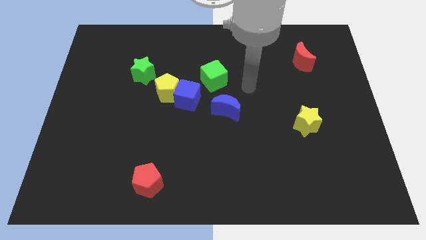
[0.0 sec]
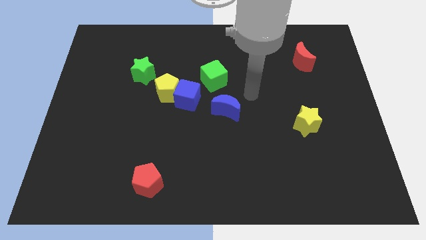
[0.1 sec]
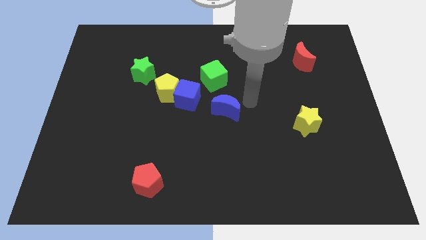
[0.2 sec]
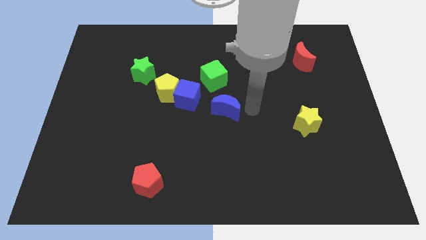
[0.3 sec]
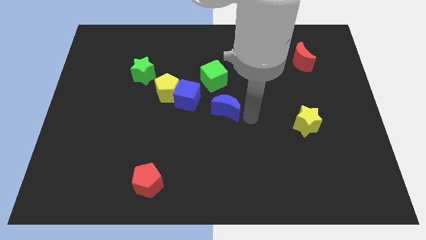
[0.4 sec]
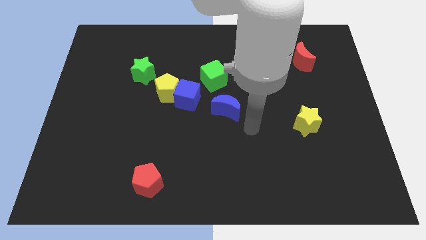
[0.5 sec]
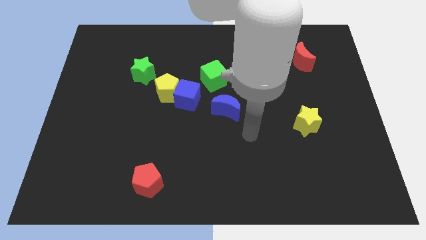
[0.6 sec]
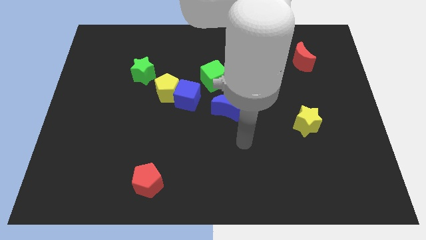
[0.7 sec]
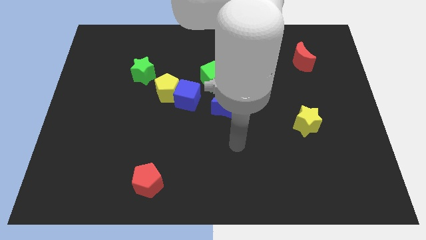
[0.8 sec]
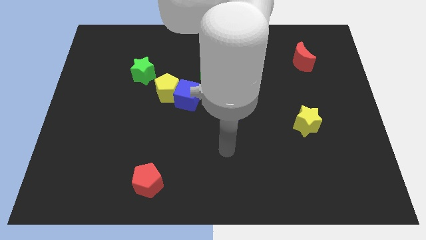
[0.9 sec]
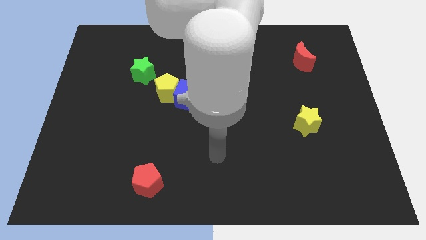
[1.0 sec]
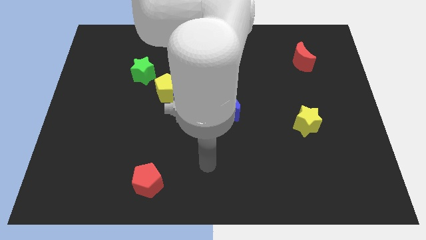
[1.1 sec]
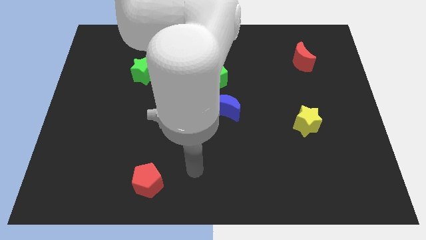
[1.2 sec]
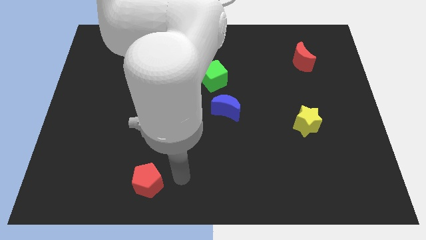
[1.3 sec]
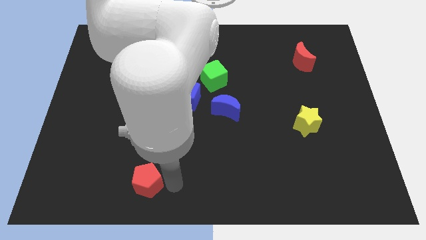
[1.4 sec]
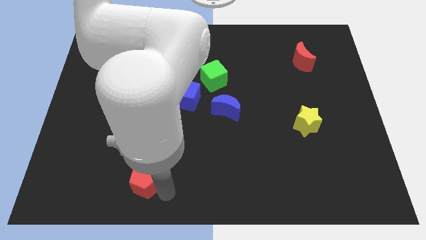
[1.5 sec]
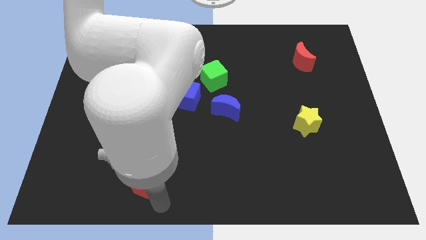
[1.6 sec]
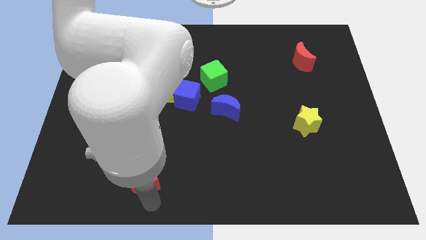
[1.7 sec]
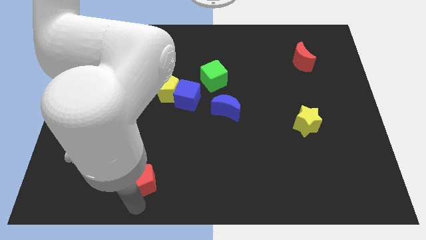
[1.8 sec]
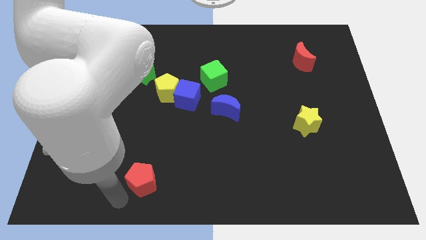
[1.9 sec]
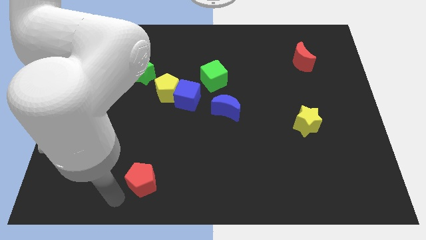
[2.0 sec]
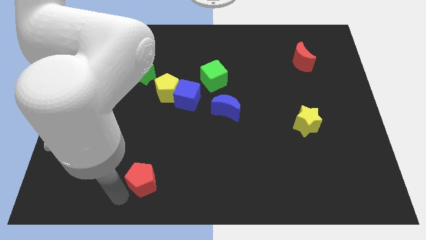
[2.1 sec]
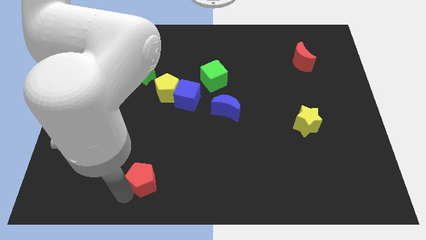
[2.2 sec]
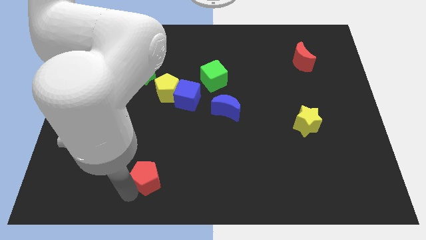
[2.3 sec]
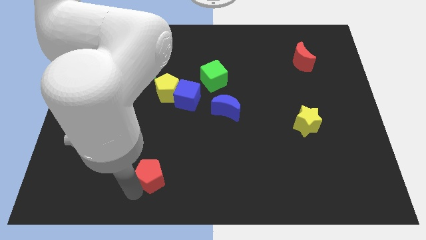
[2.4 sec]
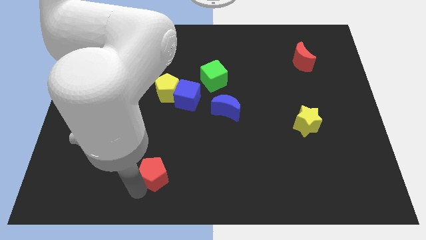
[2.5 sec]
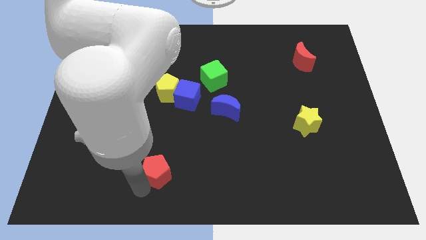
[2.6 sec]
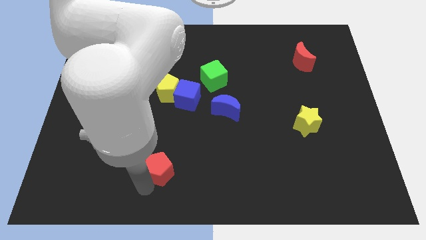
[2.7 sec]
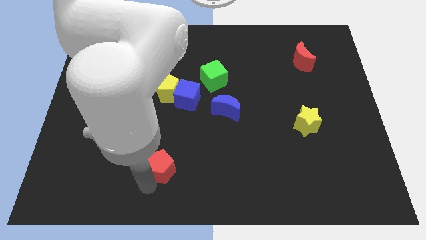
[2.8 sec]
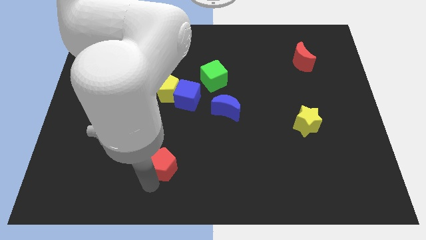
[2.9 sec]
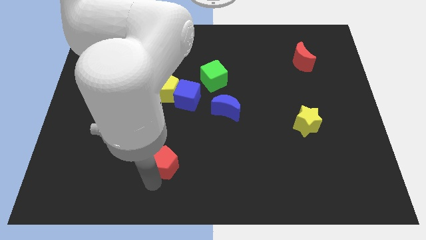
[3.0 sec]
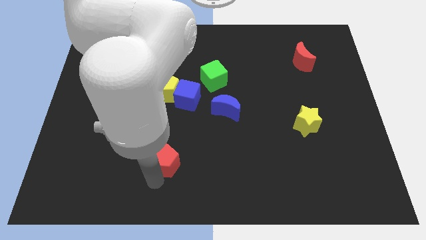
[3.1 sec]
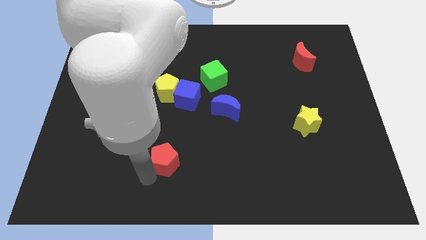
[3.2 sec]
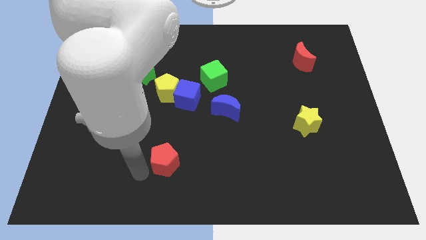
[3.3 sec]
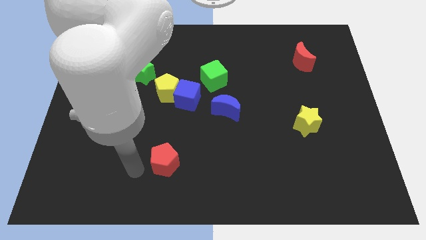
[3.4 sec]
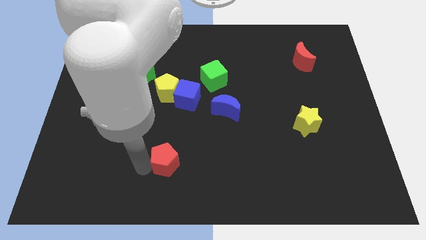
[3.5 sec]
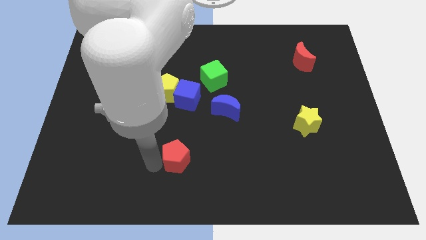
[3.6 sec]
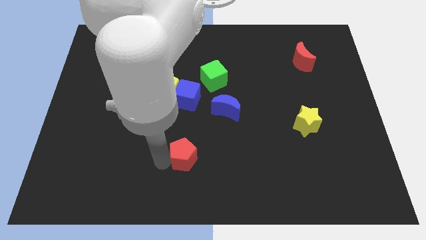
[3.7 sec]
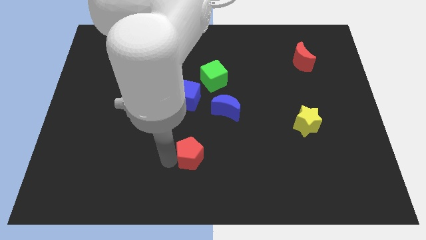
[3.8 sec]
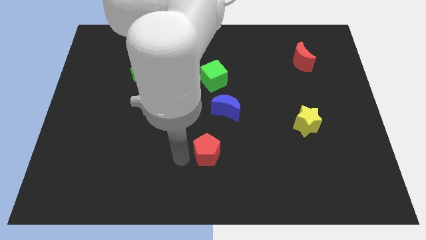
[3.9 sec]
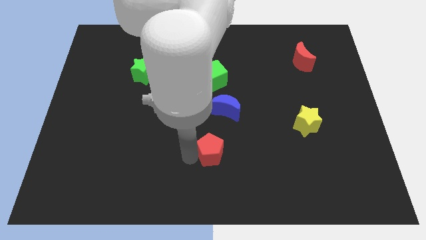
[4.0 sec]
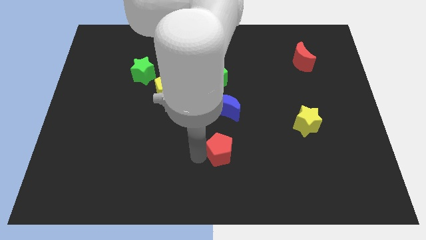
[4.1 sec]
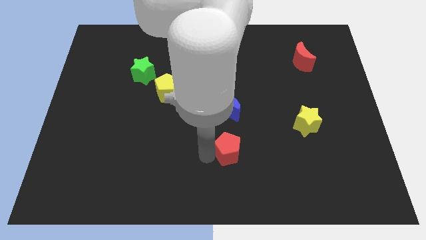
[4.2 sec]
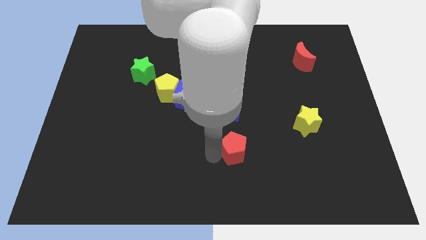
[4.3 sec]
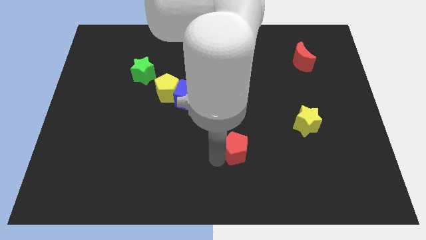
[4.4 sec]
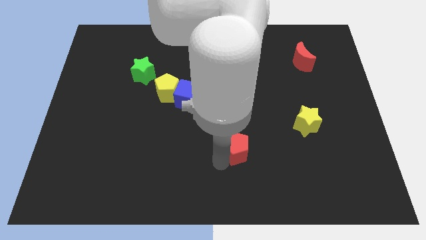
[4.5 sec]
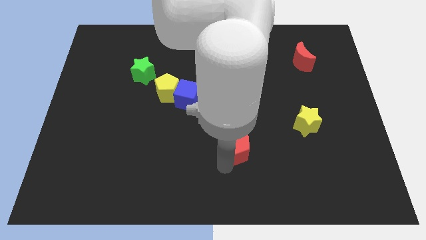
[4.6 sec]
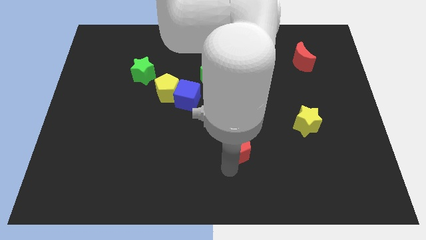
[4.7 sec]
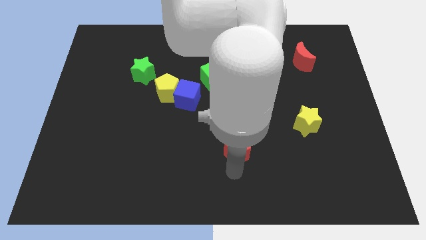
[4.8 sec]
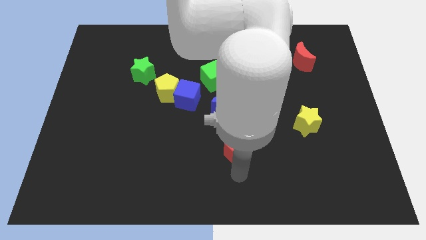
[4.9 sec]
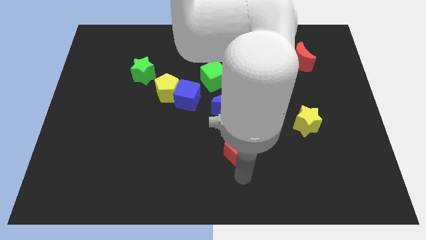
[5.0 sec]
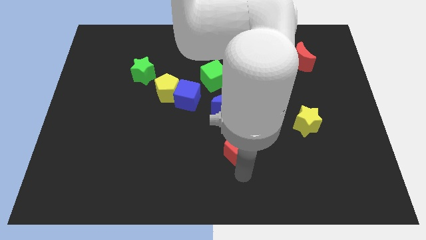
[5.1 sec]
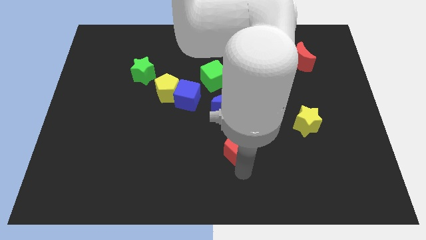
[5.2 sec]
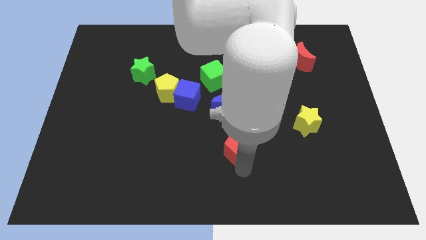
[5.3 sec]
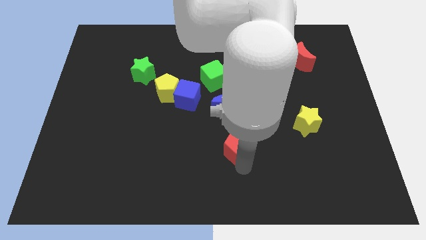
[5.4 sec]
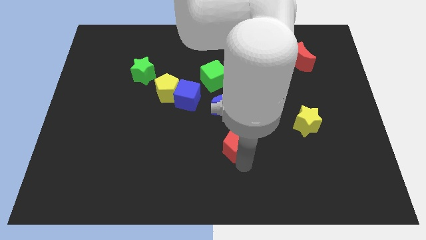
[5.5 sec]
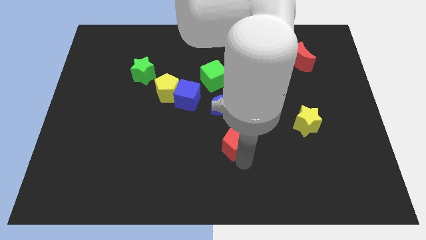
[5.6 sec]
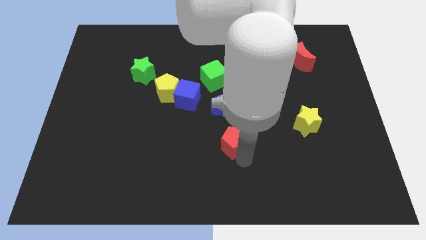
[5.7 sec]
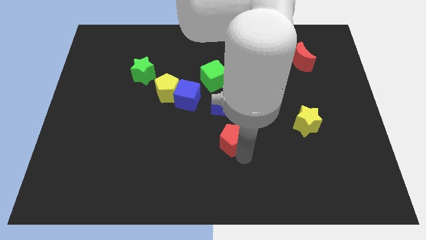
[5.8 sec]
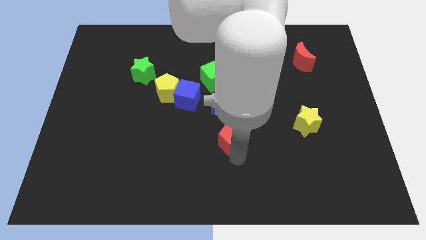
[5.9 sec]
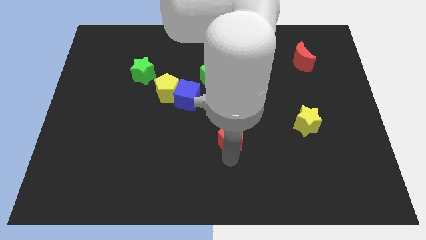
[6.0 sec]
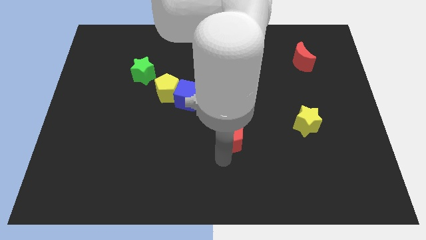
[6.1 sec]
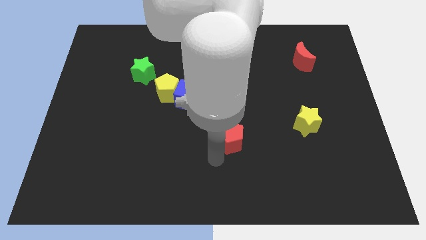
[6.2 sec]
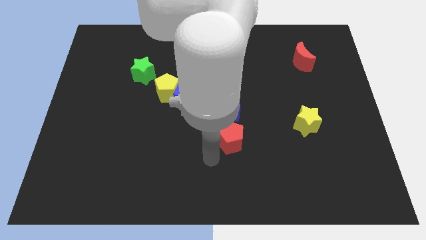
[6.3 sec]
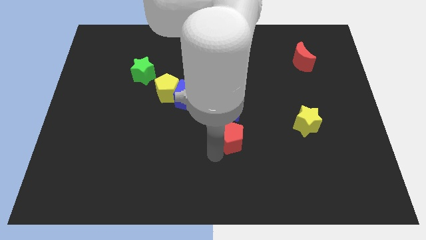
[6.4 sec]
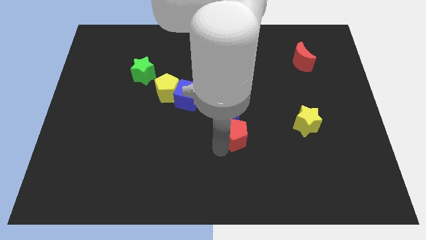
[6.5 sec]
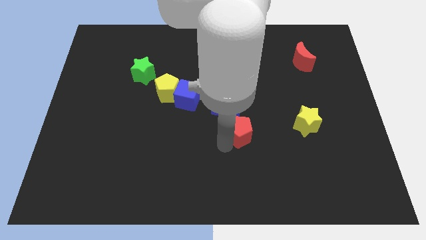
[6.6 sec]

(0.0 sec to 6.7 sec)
slide the red pentagon upwards and then to the right

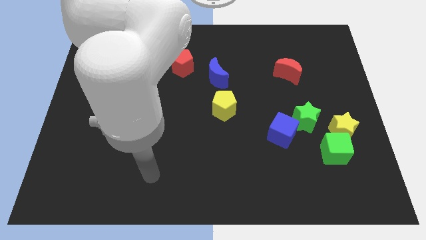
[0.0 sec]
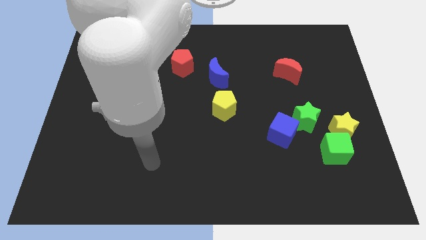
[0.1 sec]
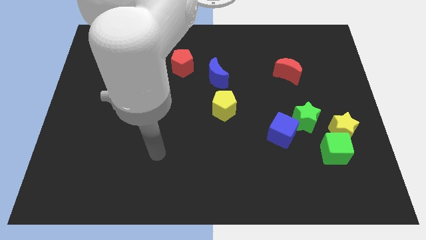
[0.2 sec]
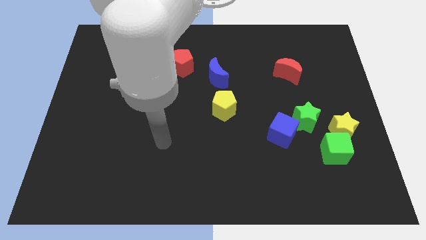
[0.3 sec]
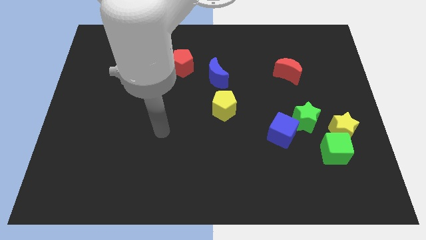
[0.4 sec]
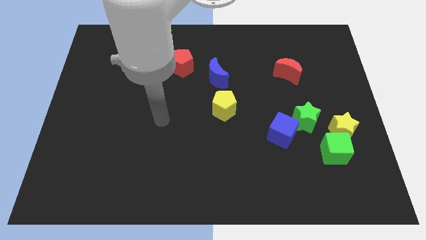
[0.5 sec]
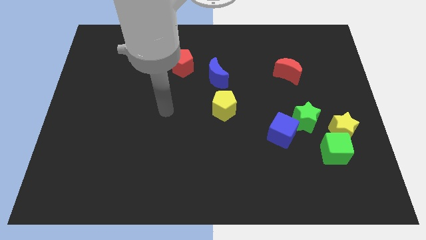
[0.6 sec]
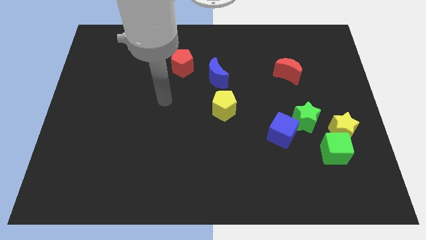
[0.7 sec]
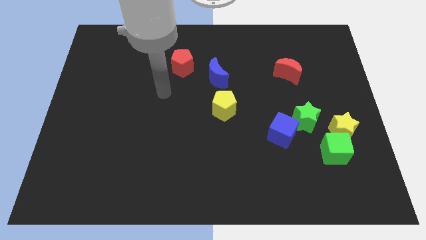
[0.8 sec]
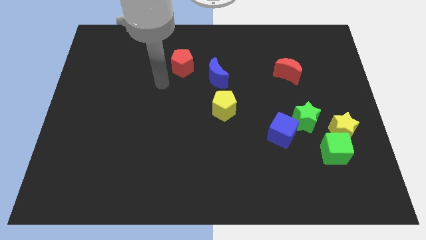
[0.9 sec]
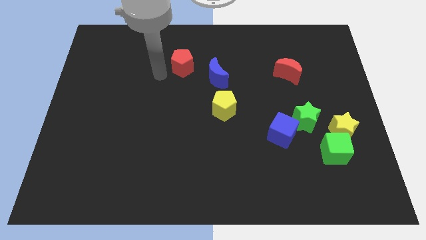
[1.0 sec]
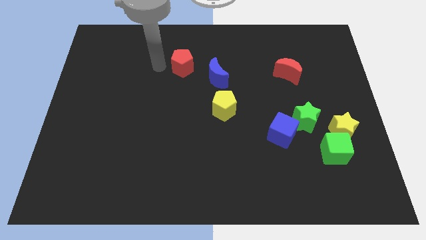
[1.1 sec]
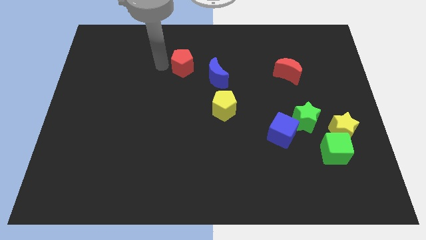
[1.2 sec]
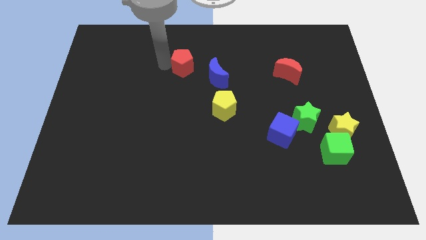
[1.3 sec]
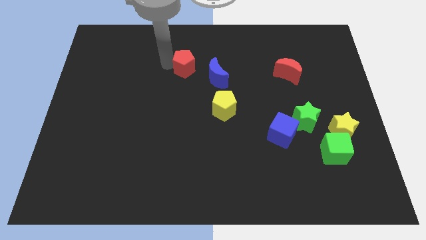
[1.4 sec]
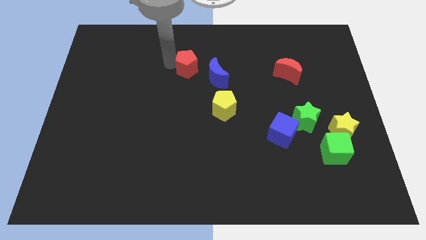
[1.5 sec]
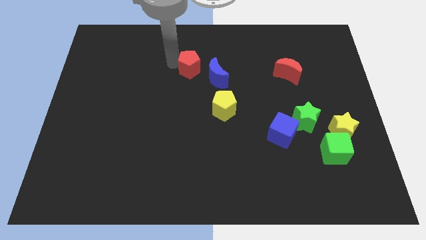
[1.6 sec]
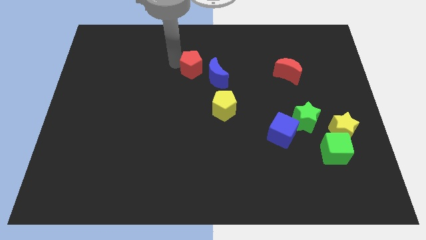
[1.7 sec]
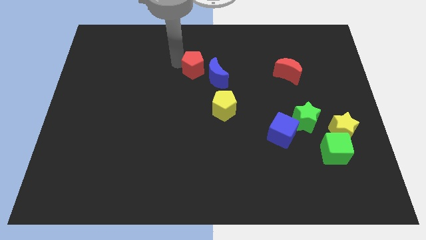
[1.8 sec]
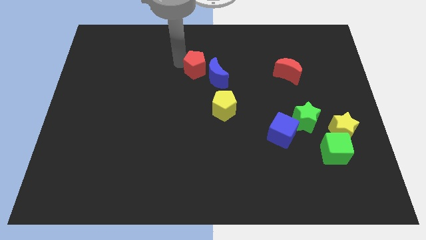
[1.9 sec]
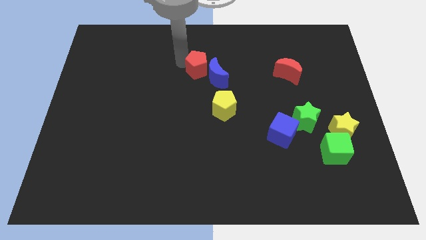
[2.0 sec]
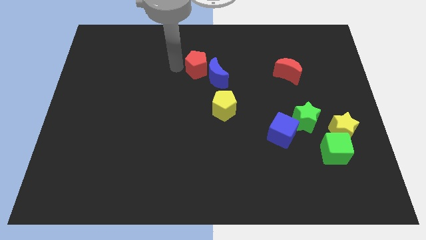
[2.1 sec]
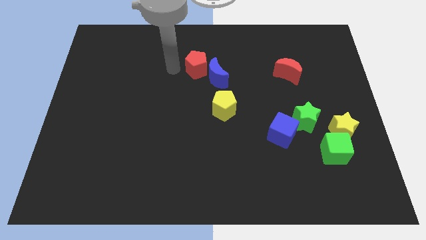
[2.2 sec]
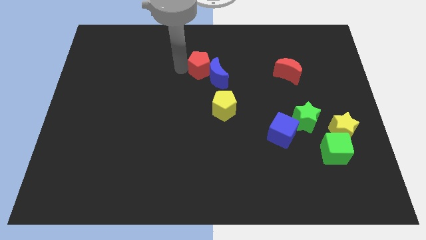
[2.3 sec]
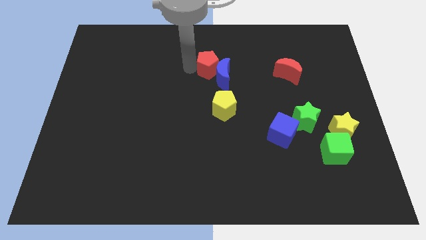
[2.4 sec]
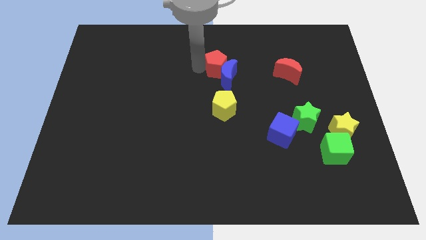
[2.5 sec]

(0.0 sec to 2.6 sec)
move the red pentagon somewhat to the right
